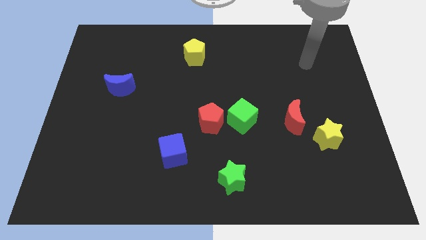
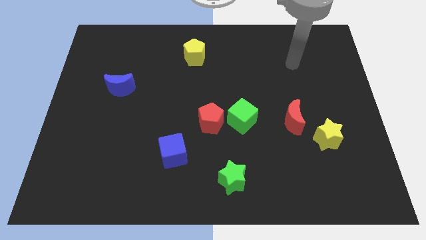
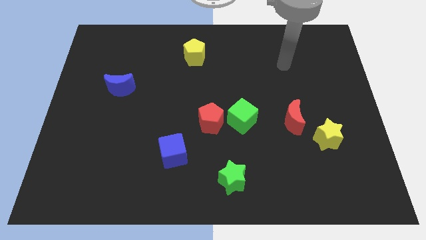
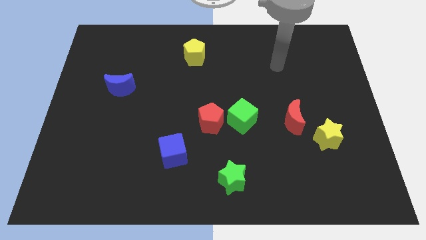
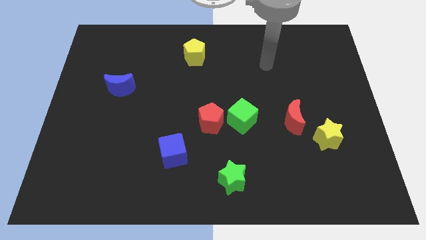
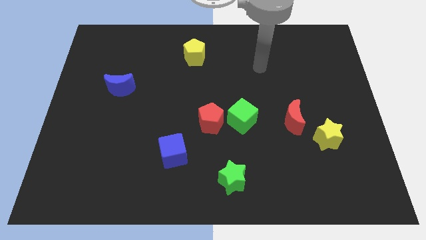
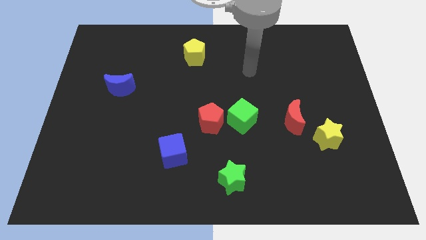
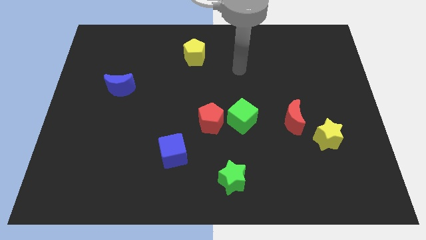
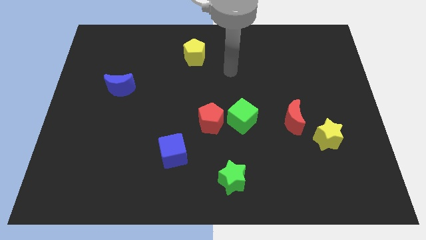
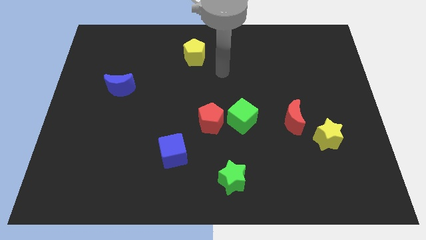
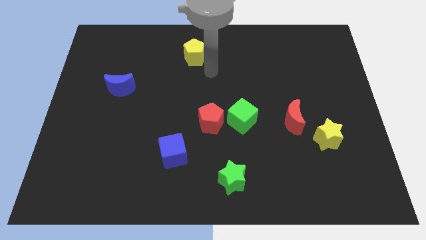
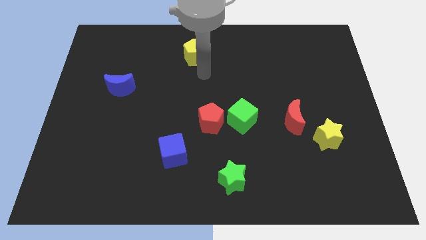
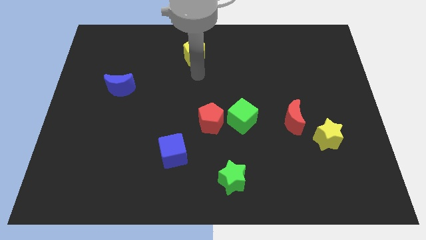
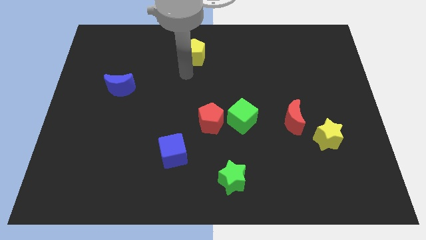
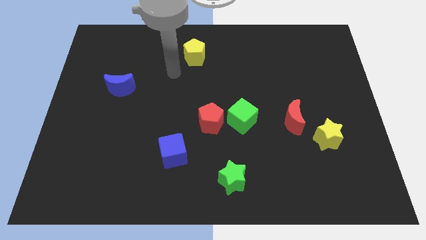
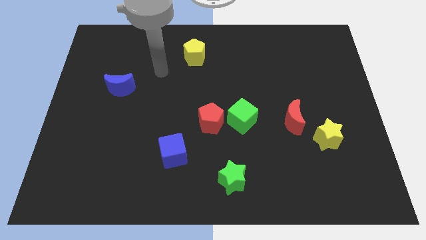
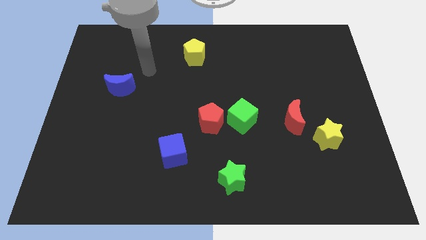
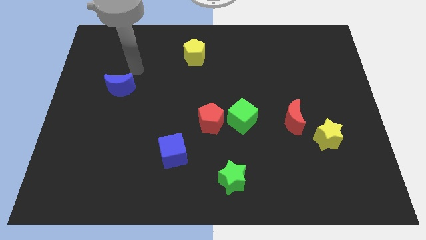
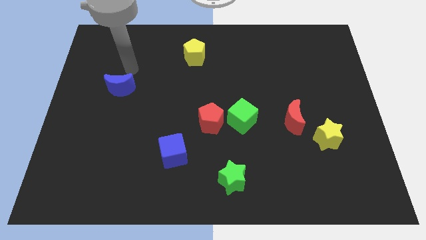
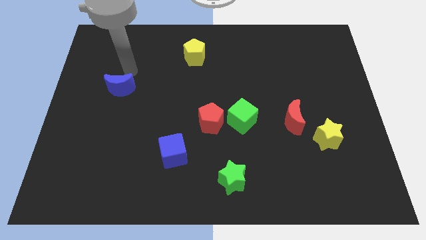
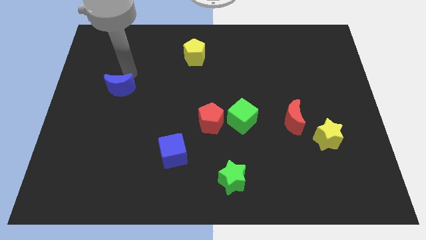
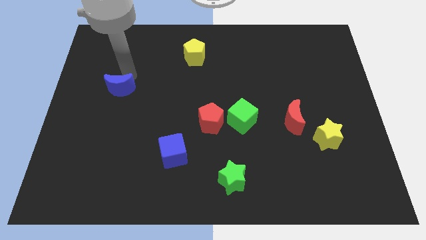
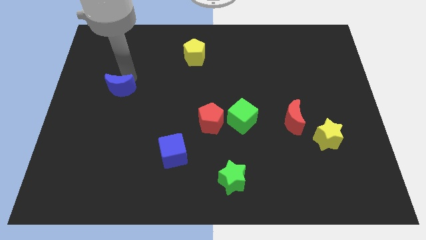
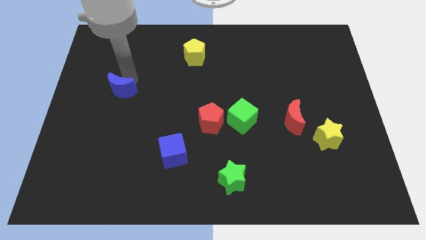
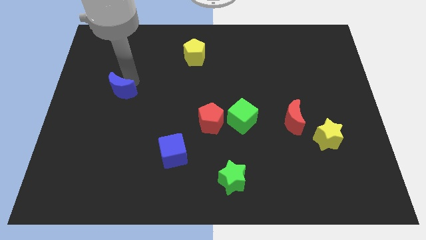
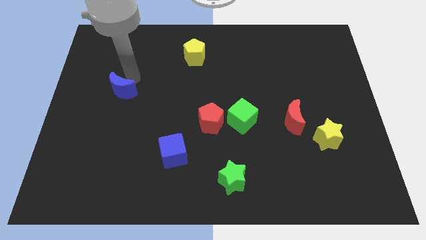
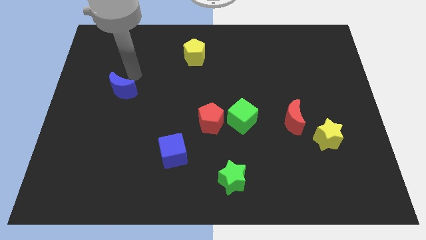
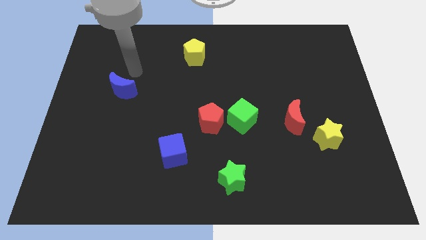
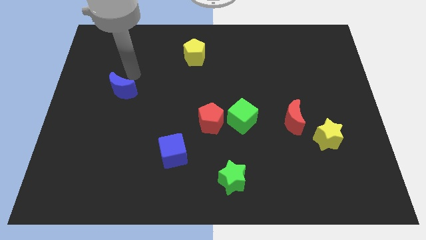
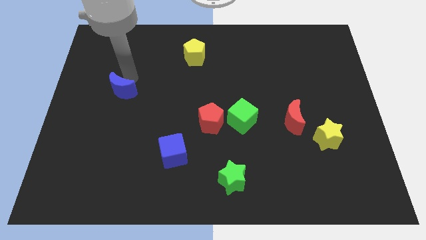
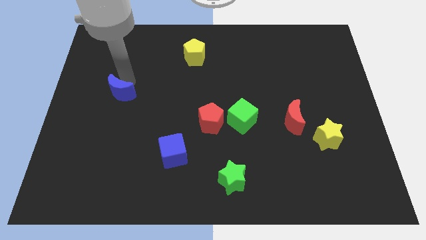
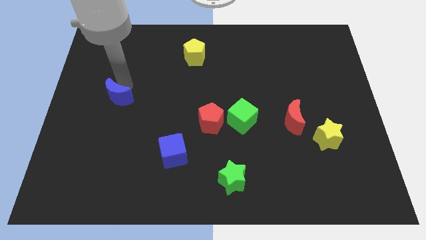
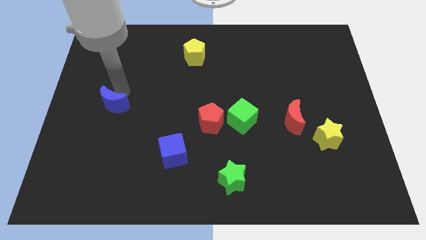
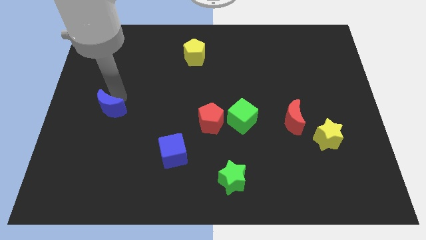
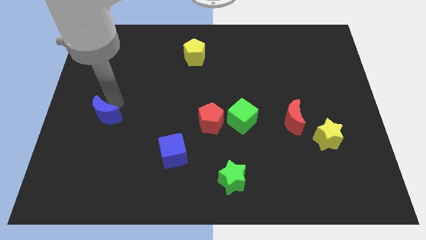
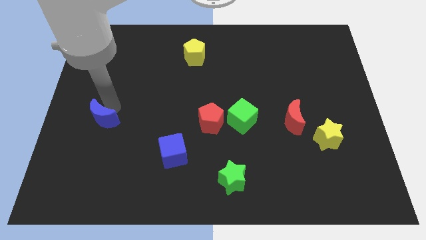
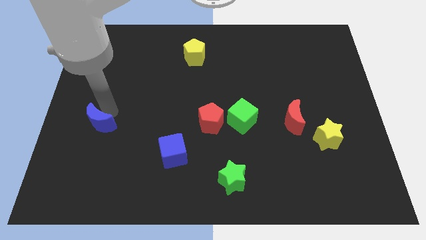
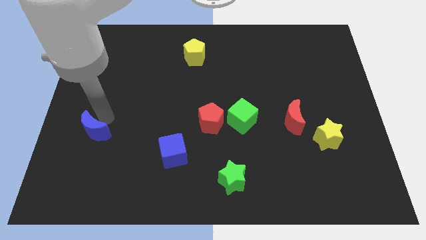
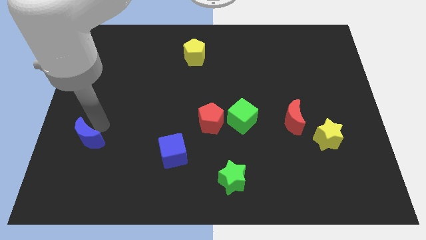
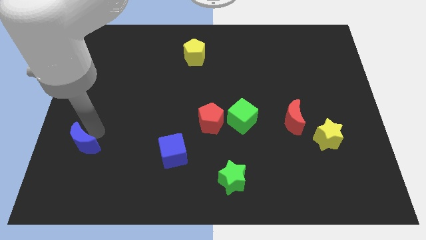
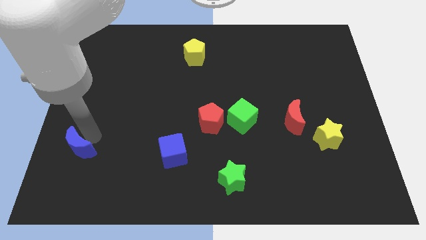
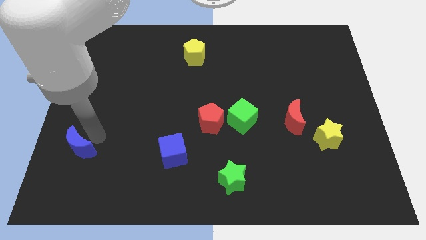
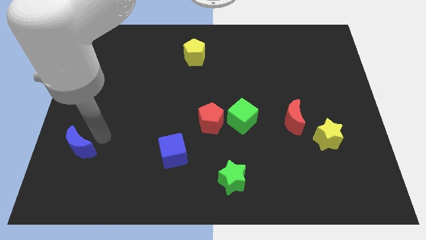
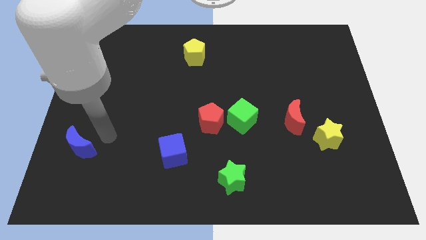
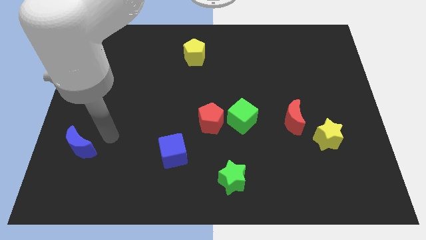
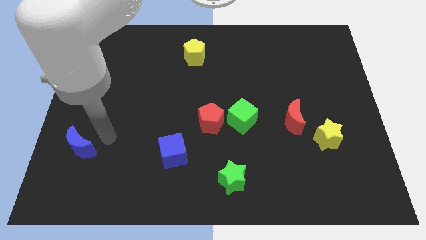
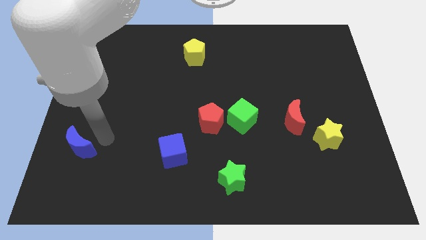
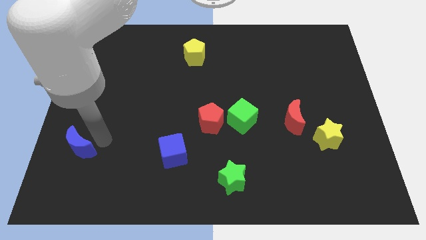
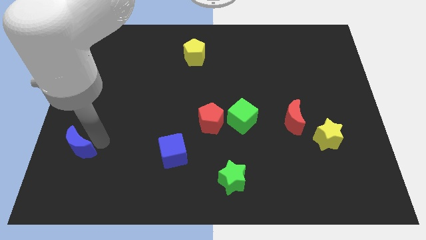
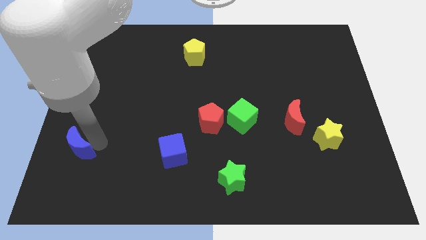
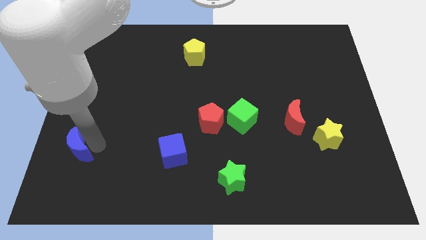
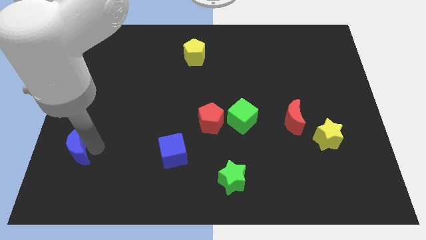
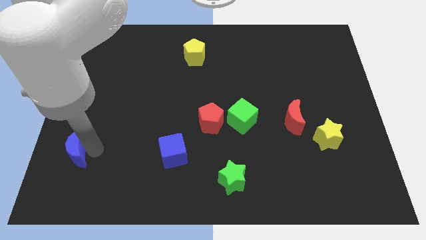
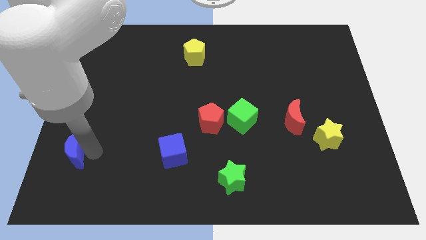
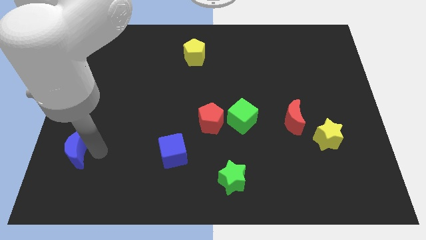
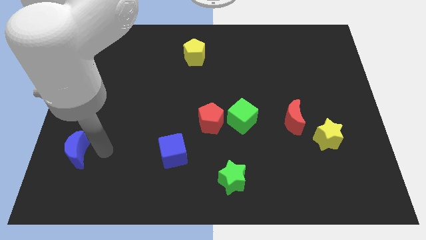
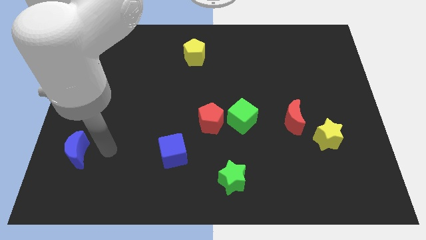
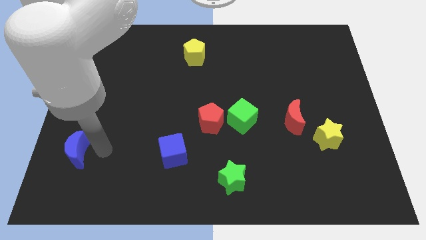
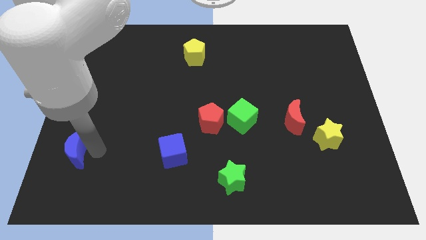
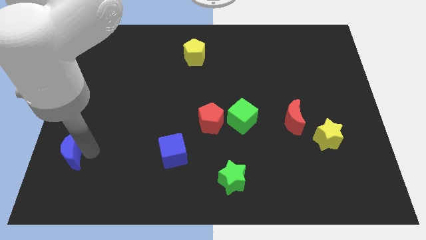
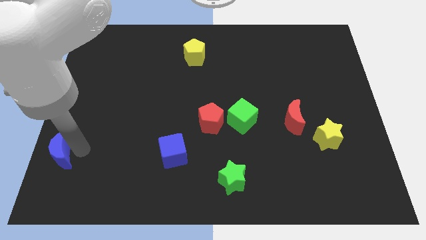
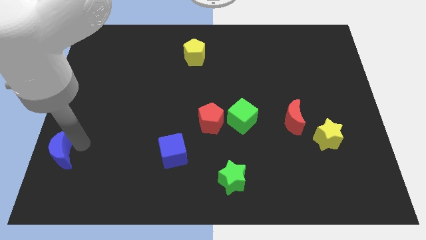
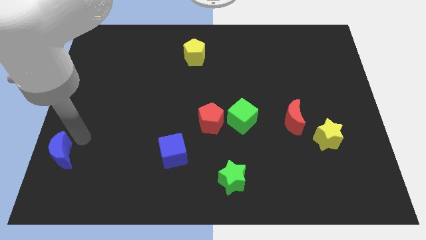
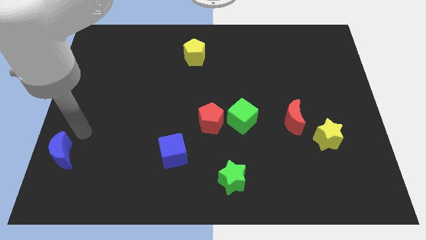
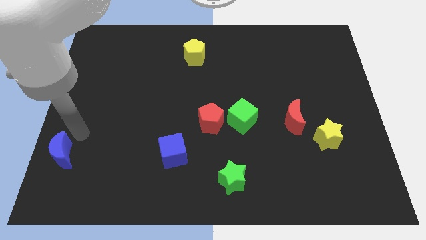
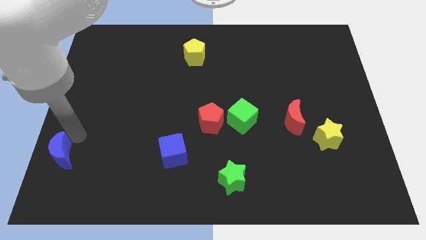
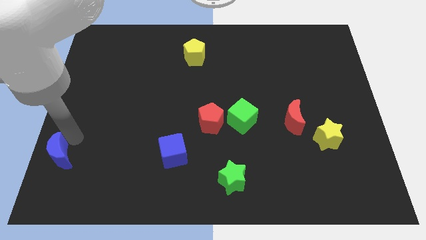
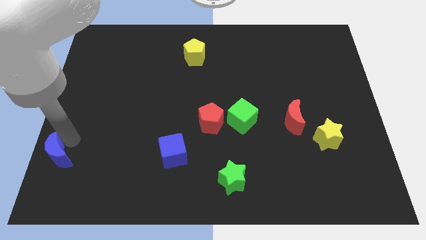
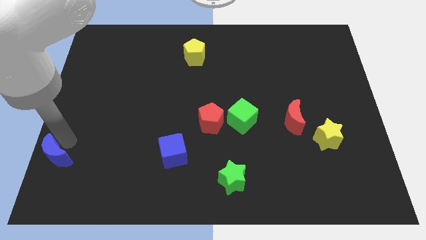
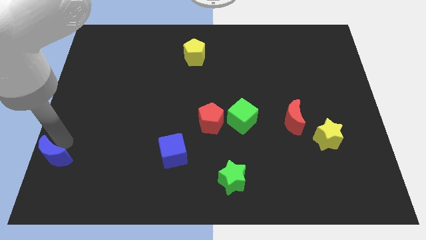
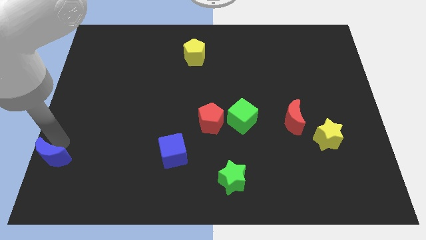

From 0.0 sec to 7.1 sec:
slide the blue moon to the bottom left
